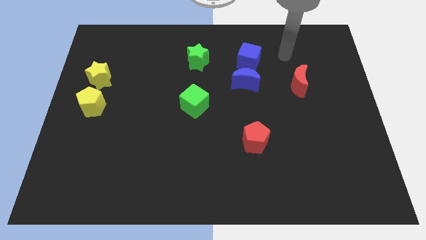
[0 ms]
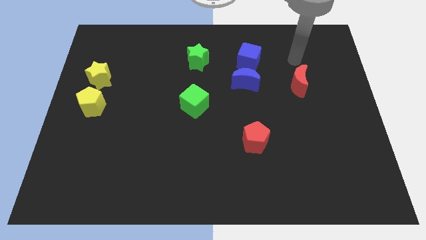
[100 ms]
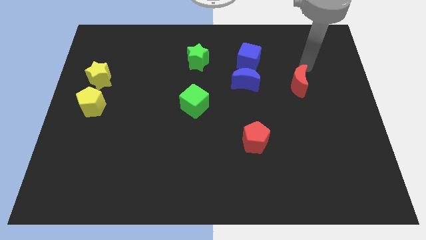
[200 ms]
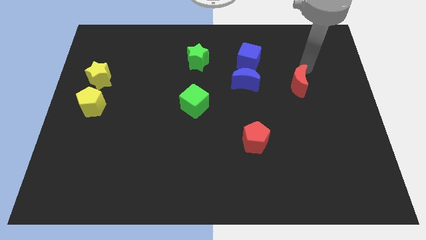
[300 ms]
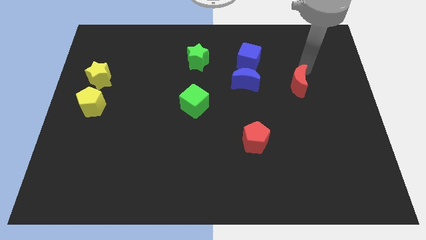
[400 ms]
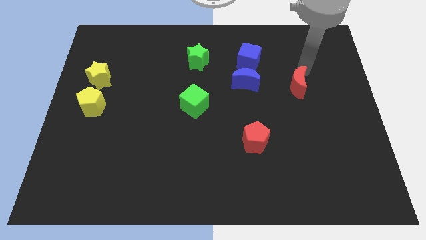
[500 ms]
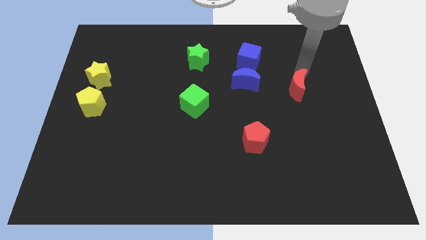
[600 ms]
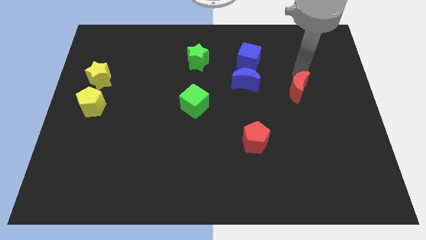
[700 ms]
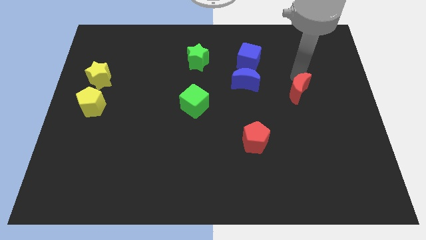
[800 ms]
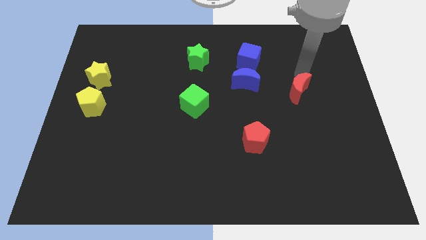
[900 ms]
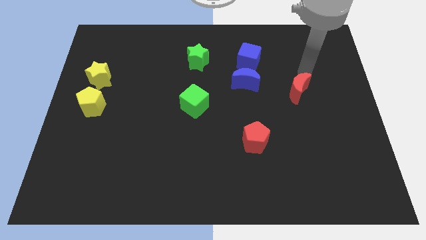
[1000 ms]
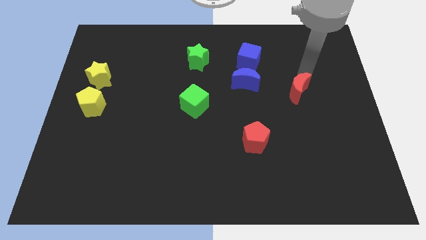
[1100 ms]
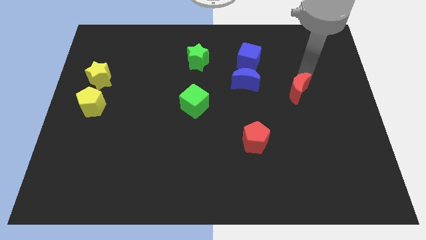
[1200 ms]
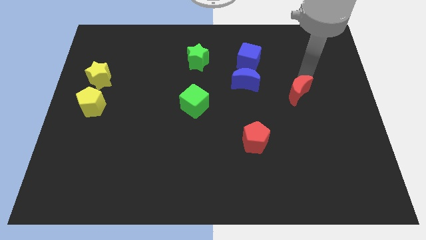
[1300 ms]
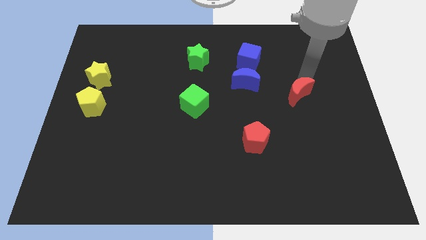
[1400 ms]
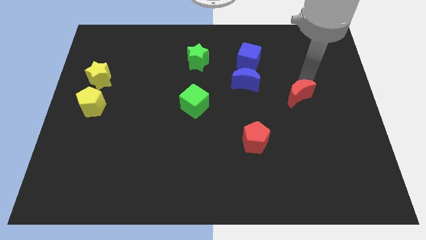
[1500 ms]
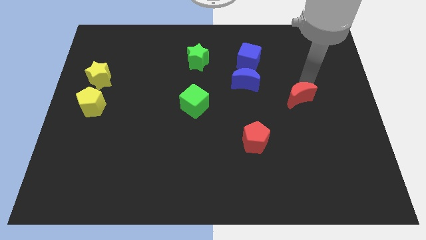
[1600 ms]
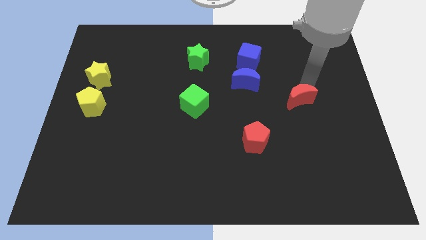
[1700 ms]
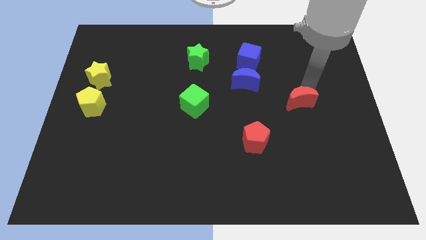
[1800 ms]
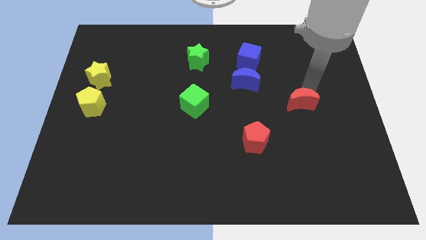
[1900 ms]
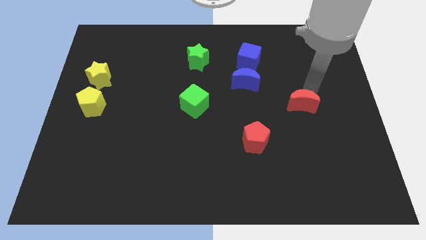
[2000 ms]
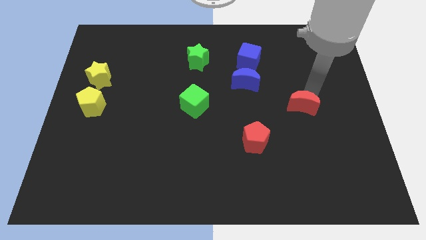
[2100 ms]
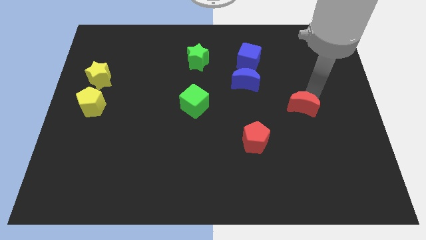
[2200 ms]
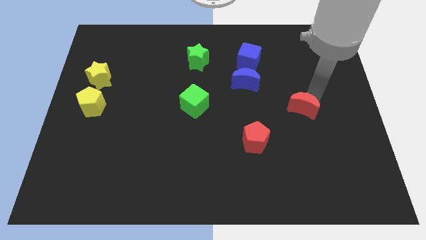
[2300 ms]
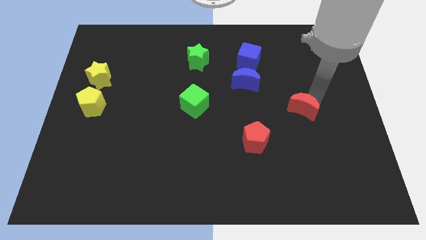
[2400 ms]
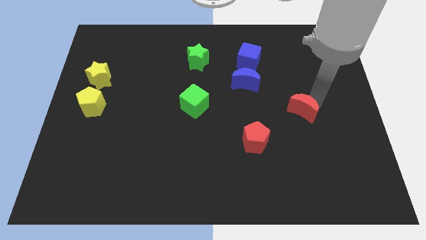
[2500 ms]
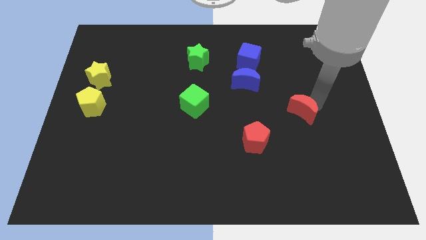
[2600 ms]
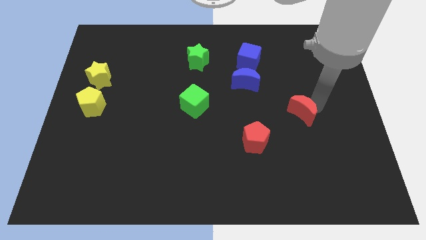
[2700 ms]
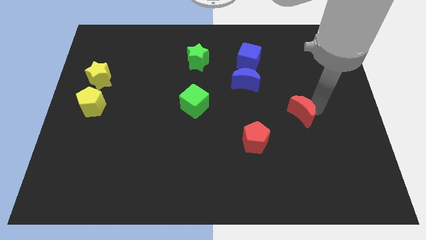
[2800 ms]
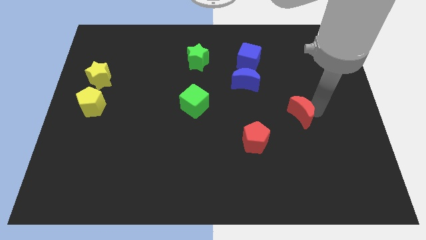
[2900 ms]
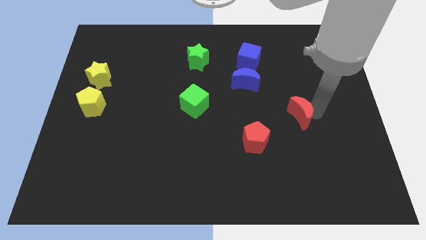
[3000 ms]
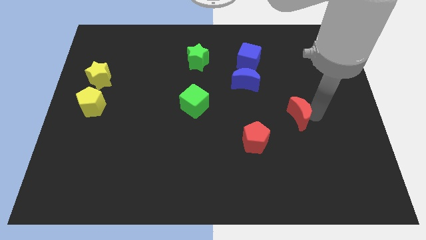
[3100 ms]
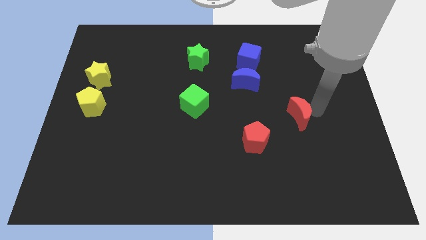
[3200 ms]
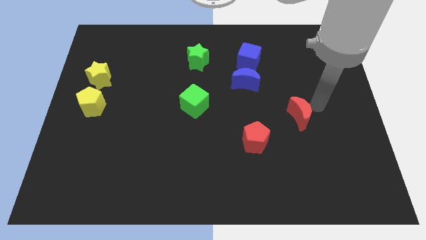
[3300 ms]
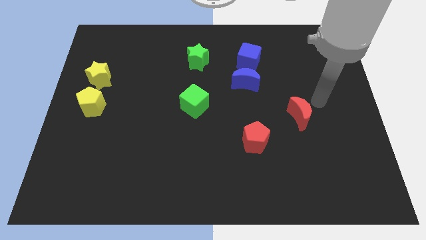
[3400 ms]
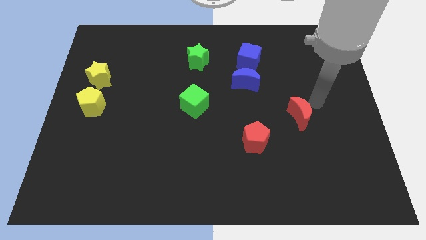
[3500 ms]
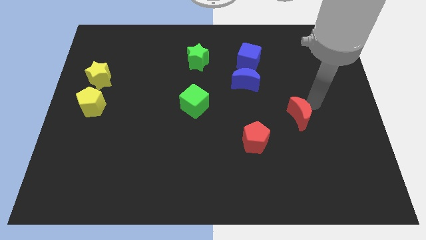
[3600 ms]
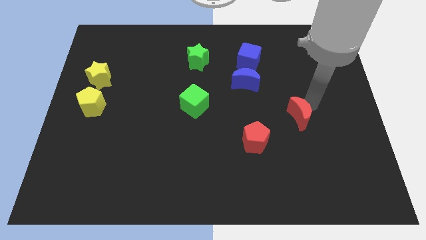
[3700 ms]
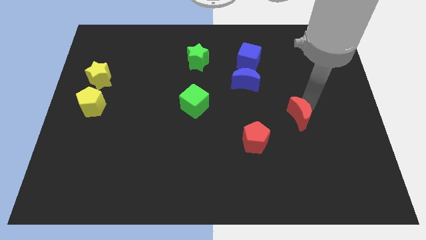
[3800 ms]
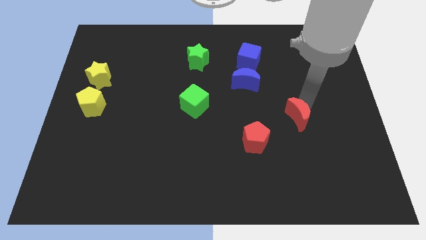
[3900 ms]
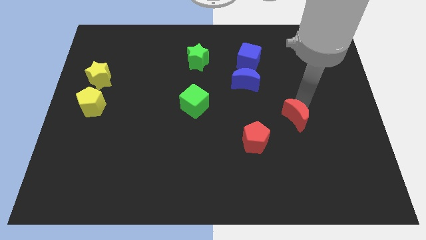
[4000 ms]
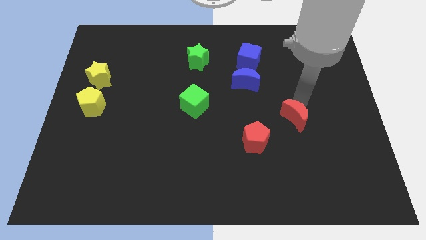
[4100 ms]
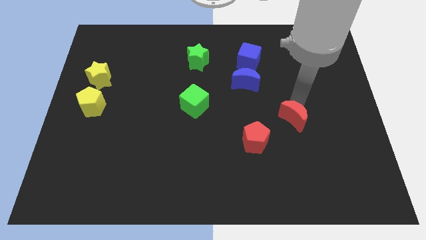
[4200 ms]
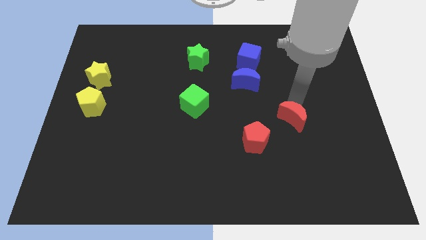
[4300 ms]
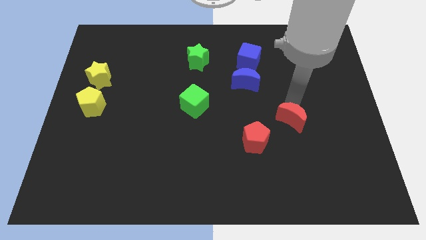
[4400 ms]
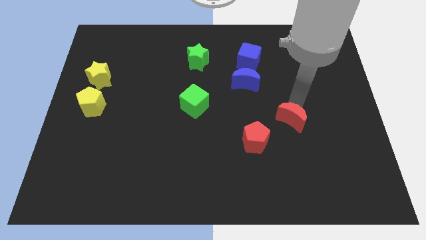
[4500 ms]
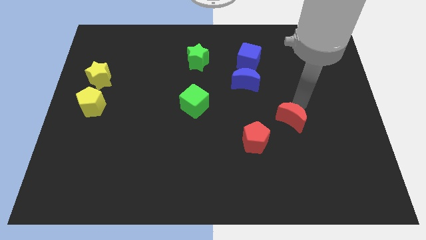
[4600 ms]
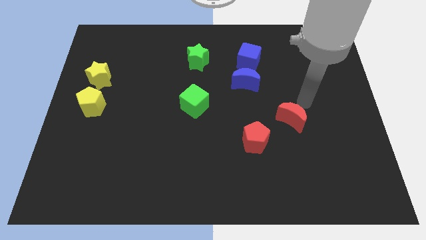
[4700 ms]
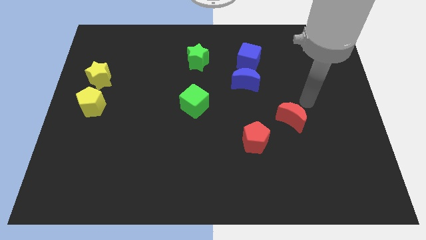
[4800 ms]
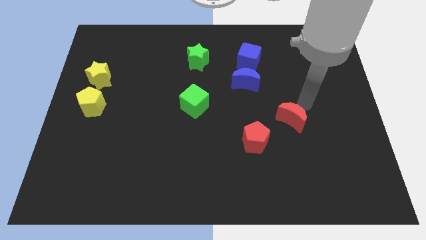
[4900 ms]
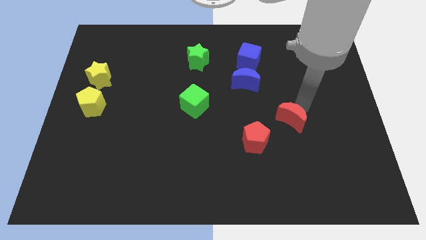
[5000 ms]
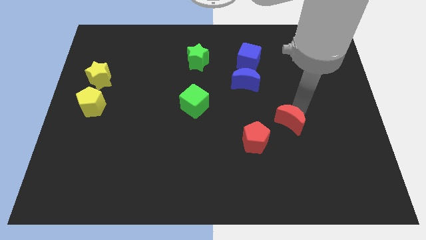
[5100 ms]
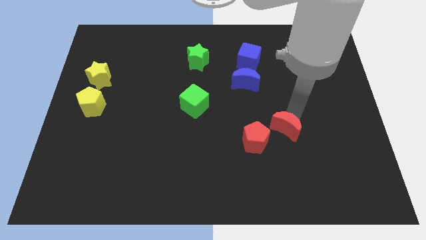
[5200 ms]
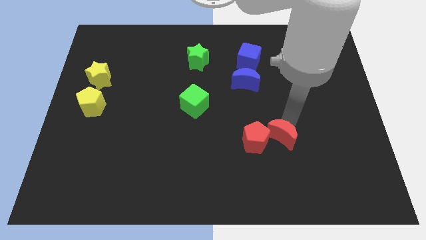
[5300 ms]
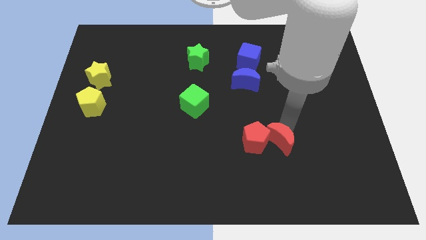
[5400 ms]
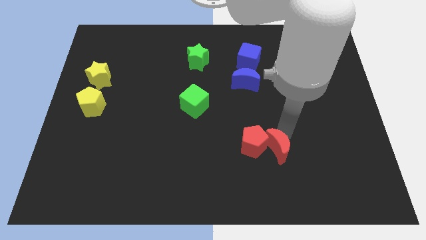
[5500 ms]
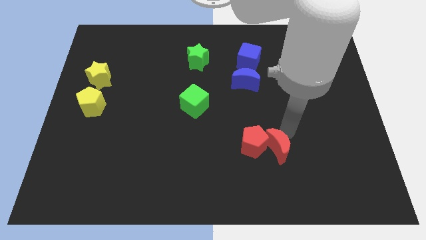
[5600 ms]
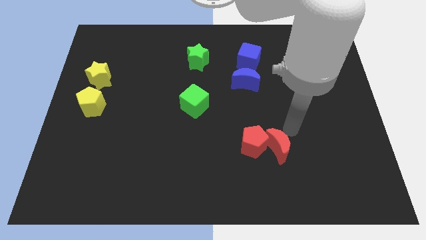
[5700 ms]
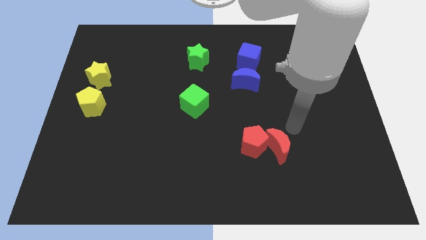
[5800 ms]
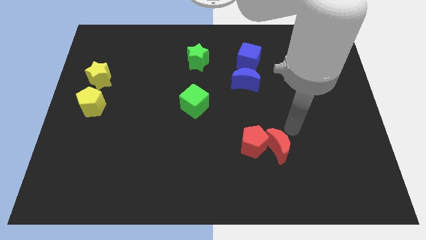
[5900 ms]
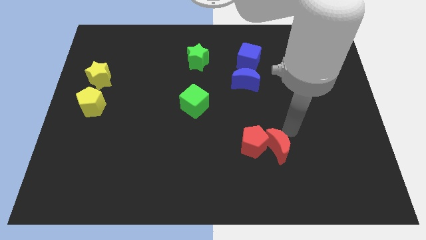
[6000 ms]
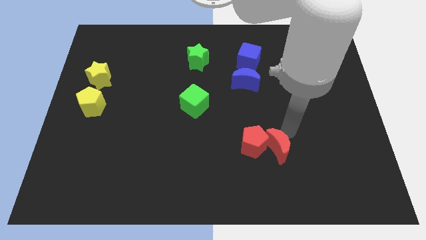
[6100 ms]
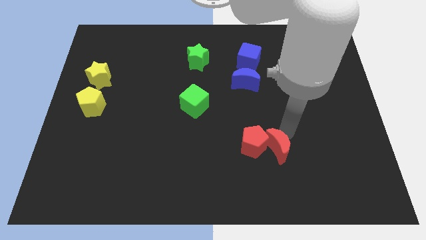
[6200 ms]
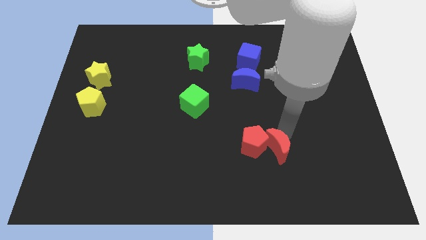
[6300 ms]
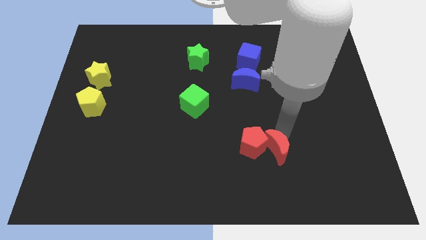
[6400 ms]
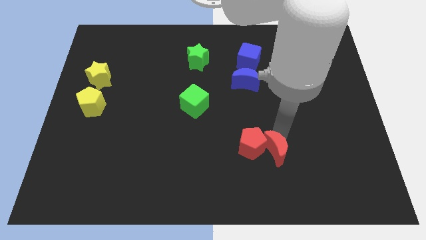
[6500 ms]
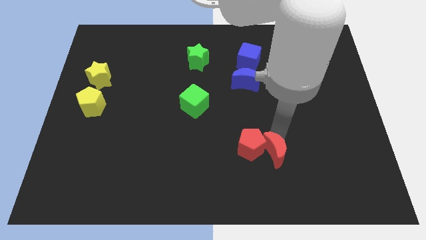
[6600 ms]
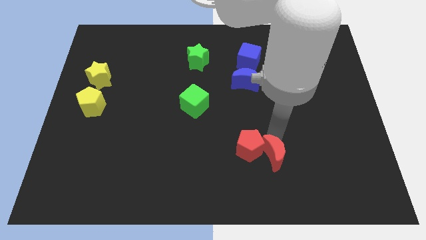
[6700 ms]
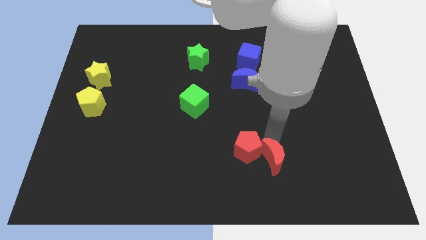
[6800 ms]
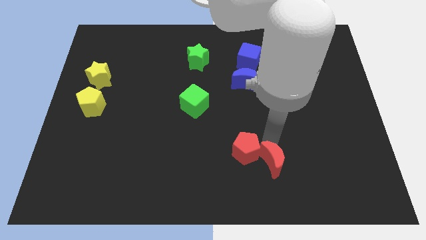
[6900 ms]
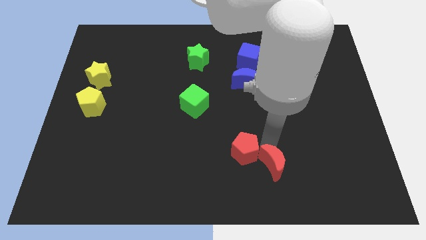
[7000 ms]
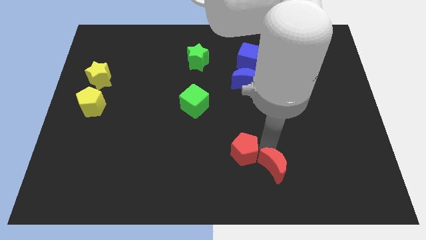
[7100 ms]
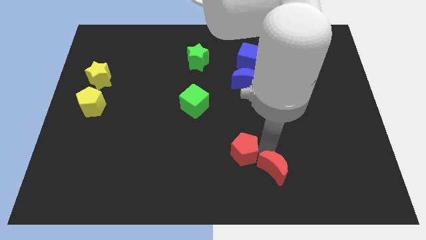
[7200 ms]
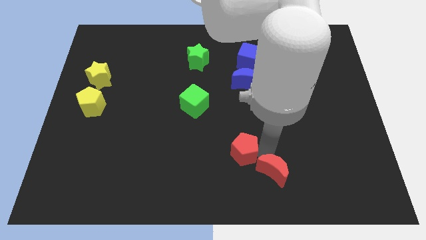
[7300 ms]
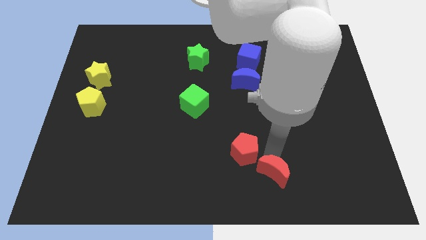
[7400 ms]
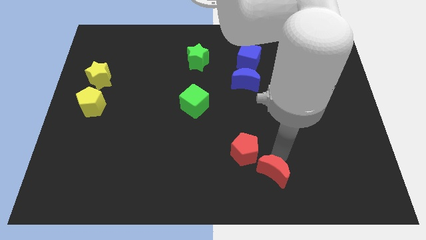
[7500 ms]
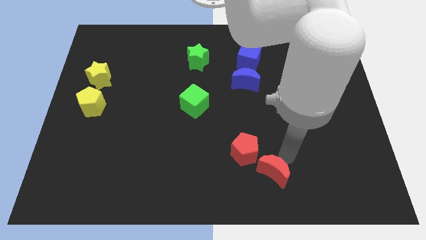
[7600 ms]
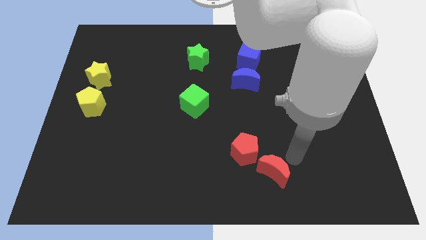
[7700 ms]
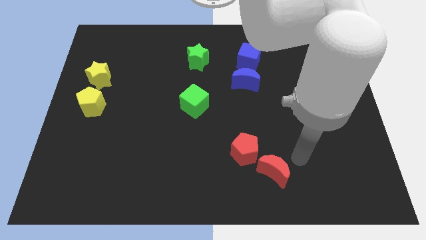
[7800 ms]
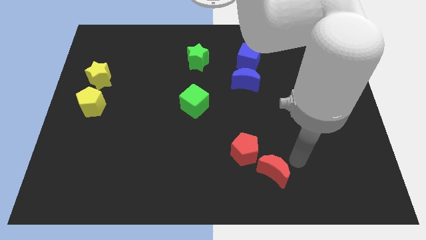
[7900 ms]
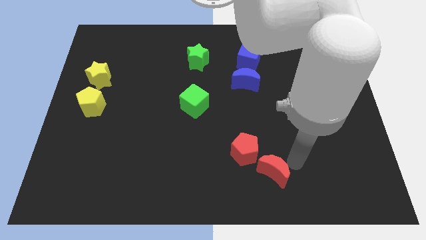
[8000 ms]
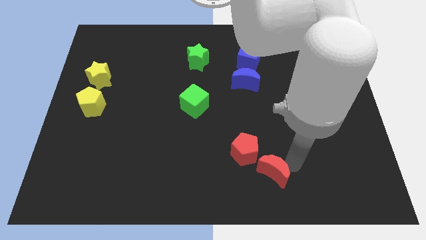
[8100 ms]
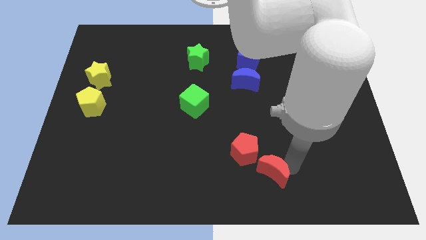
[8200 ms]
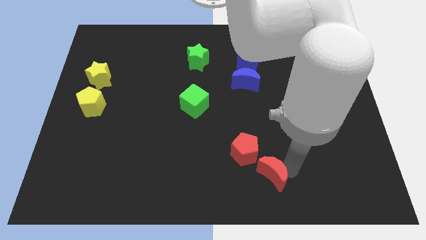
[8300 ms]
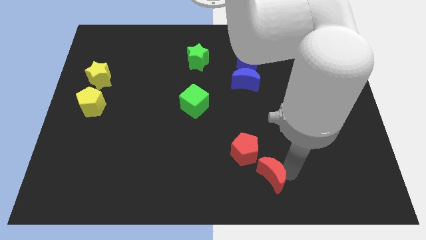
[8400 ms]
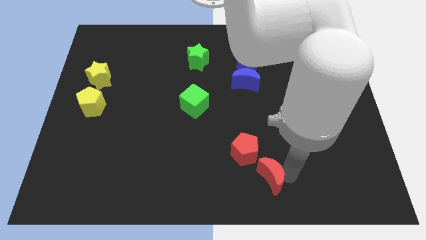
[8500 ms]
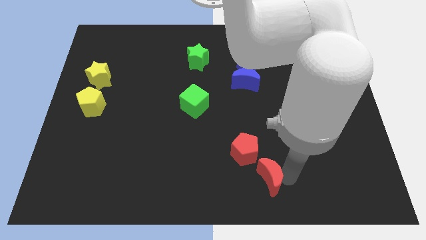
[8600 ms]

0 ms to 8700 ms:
move the red moon to the bottom side
